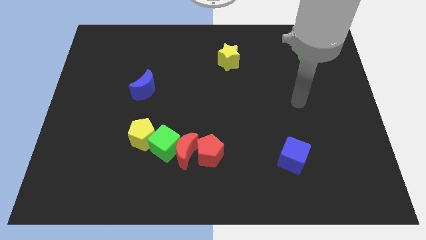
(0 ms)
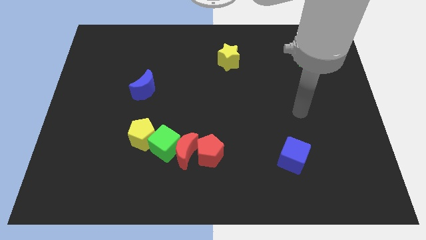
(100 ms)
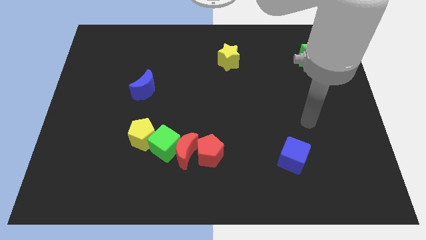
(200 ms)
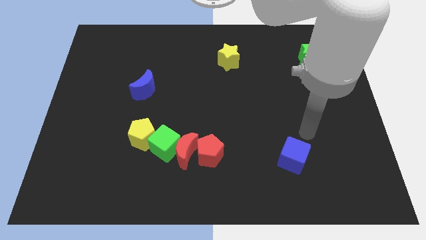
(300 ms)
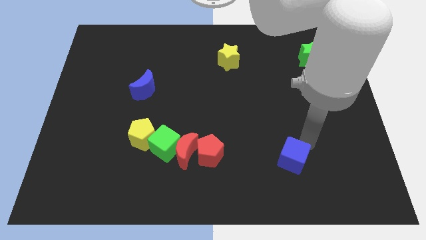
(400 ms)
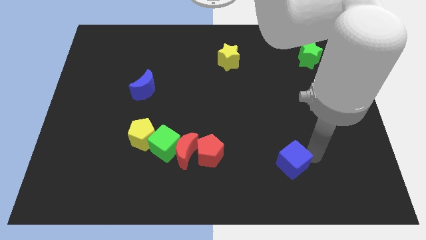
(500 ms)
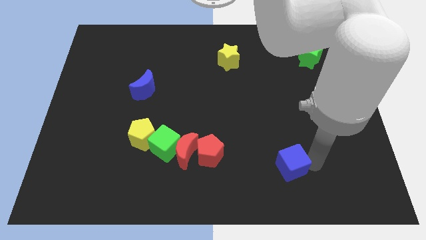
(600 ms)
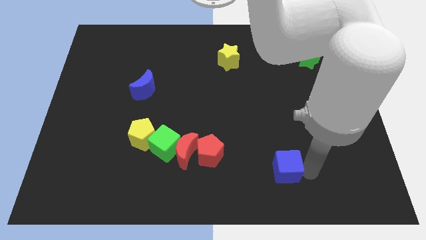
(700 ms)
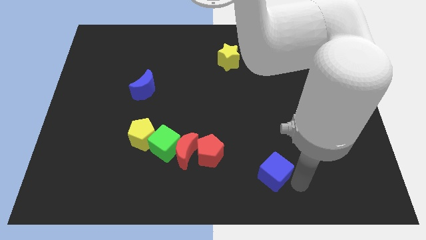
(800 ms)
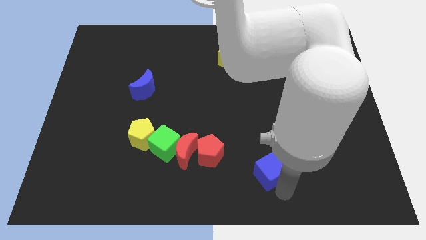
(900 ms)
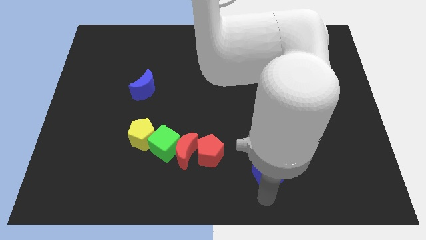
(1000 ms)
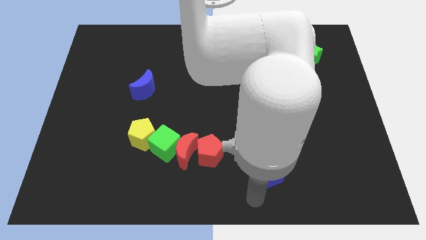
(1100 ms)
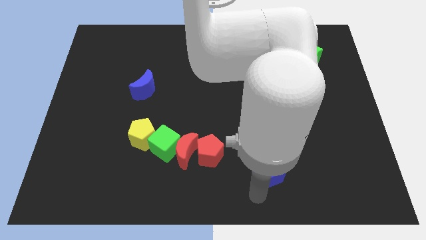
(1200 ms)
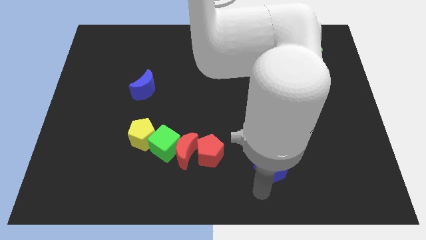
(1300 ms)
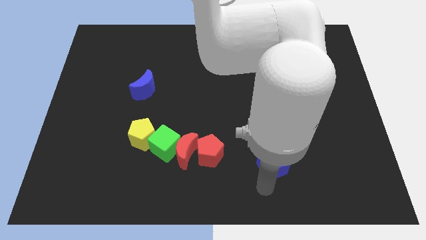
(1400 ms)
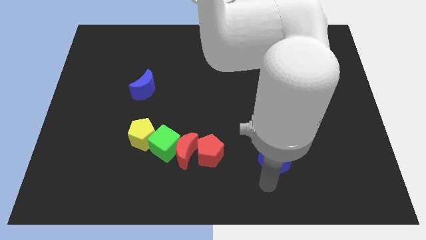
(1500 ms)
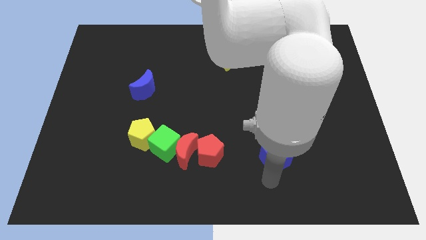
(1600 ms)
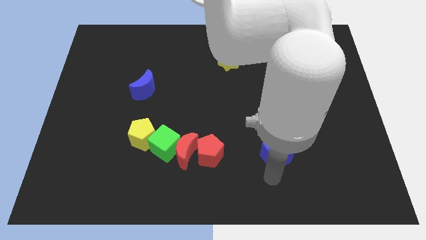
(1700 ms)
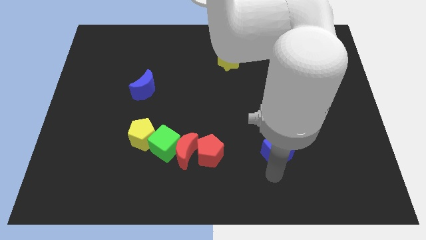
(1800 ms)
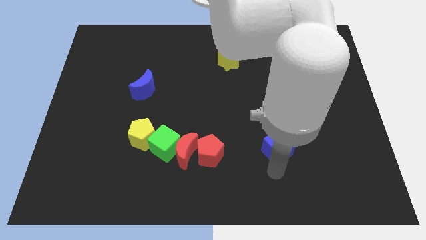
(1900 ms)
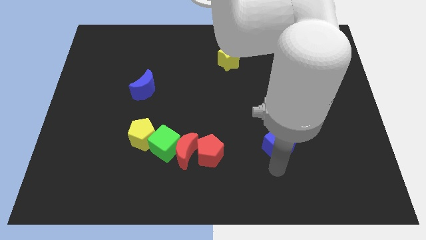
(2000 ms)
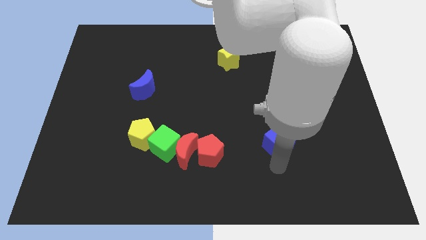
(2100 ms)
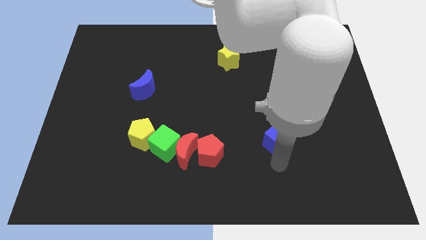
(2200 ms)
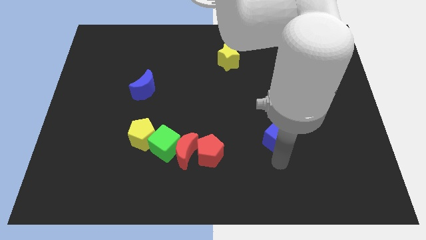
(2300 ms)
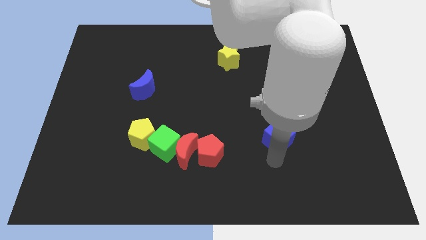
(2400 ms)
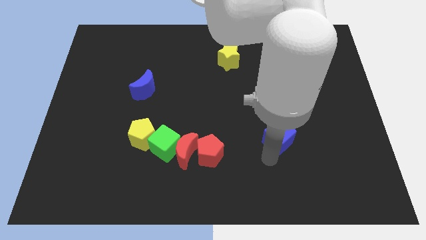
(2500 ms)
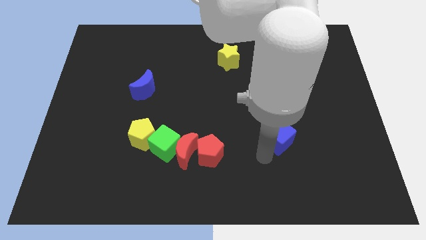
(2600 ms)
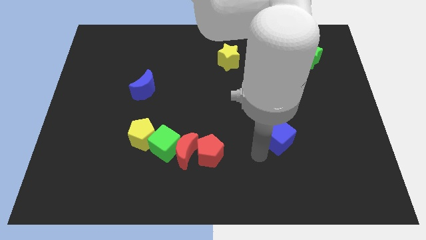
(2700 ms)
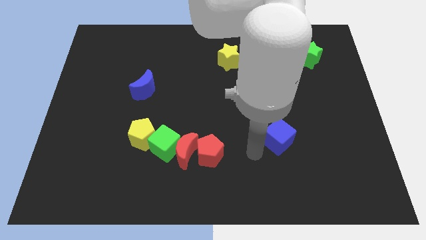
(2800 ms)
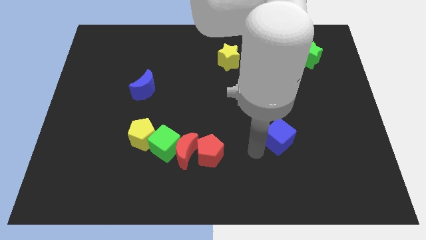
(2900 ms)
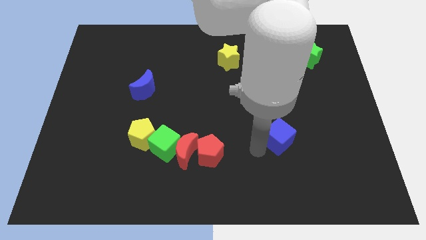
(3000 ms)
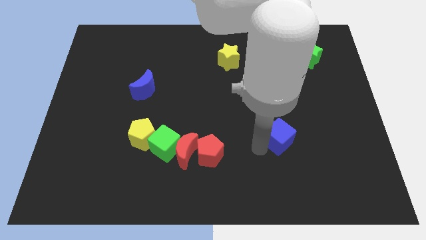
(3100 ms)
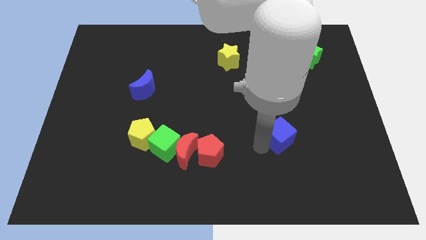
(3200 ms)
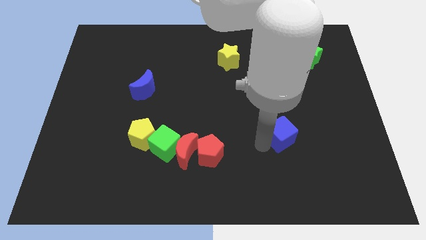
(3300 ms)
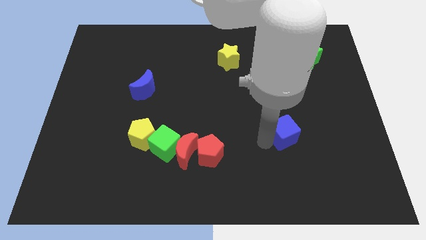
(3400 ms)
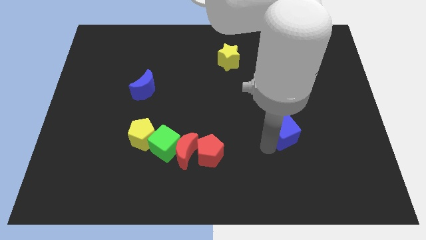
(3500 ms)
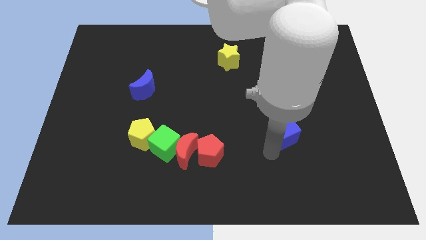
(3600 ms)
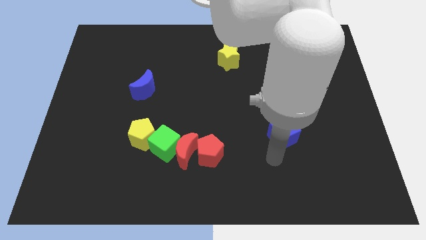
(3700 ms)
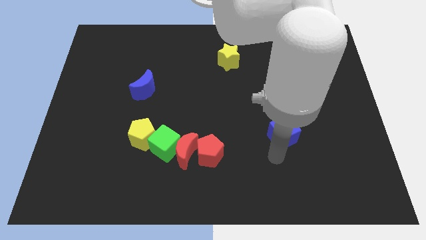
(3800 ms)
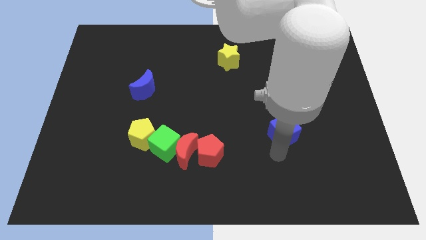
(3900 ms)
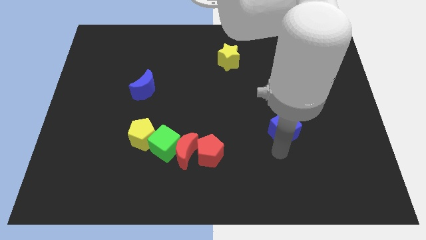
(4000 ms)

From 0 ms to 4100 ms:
slightly slide the blue cube upwards

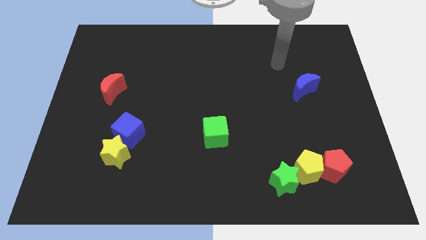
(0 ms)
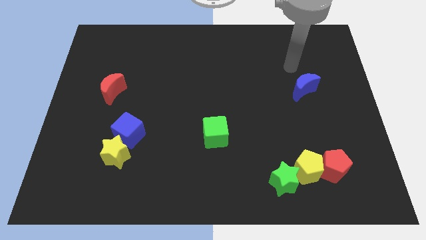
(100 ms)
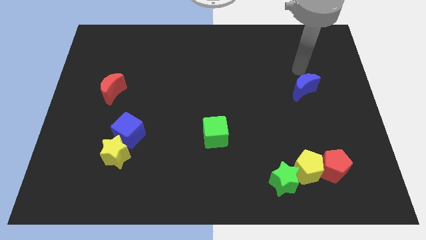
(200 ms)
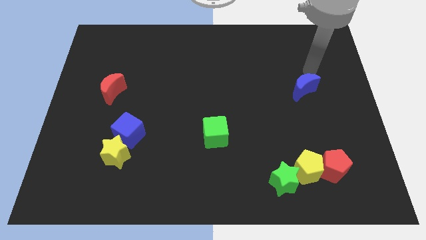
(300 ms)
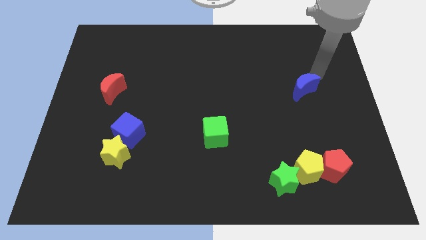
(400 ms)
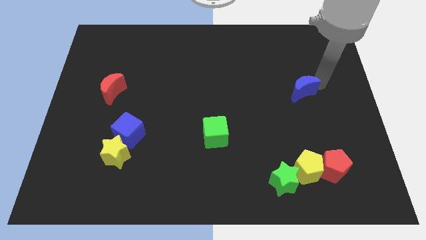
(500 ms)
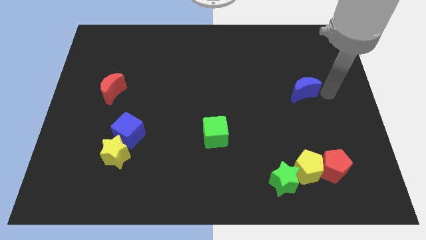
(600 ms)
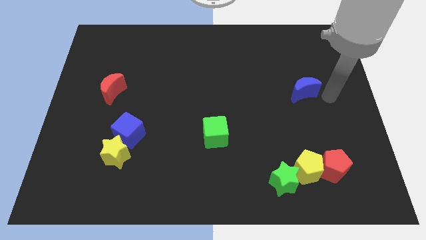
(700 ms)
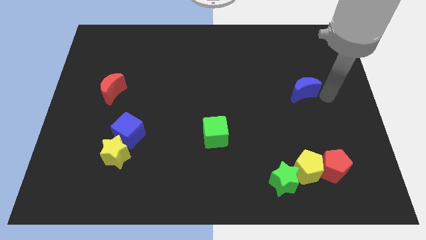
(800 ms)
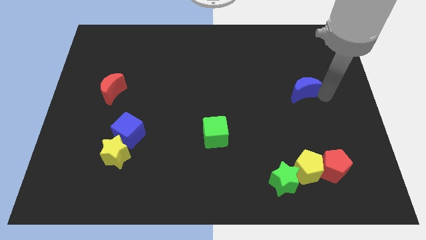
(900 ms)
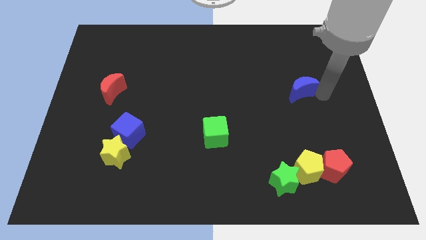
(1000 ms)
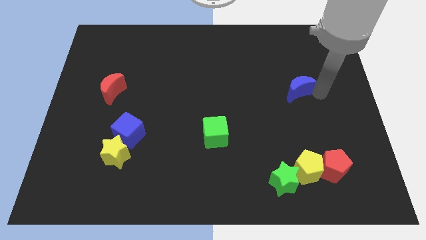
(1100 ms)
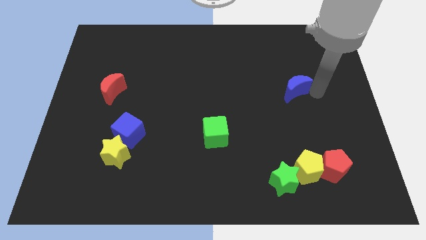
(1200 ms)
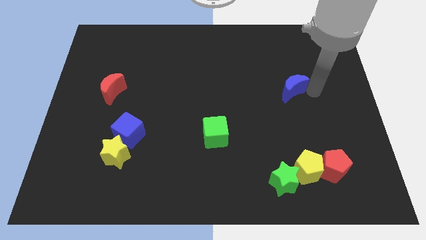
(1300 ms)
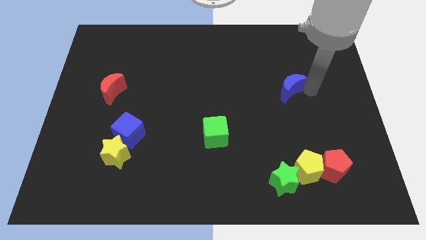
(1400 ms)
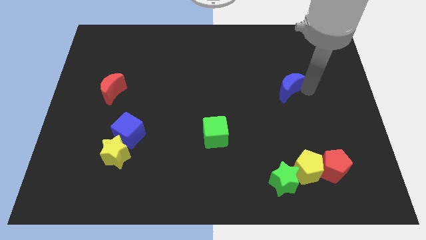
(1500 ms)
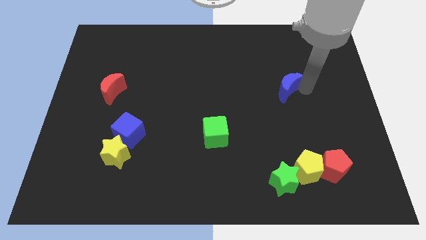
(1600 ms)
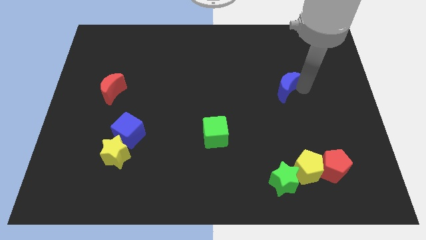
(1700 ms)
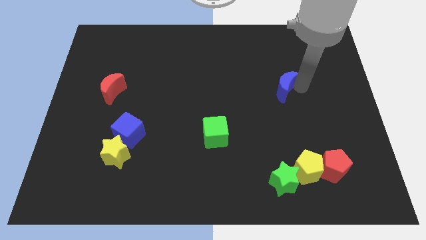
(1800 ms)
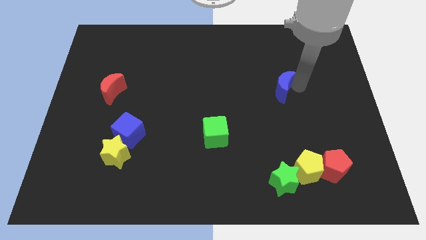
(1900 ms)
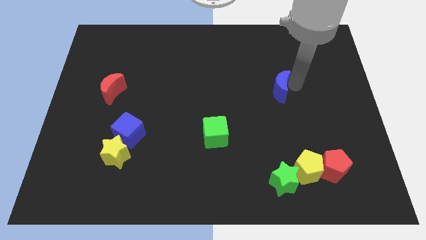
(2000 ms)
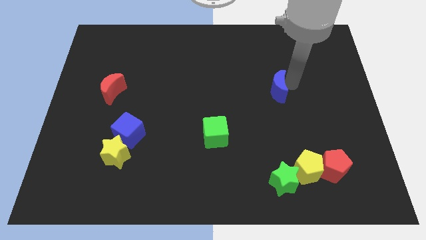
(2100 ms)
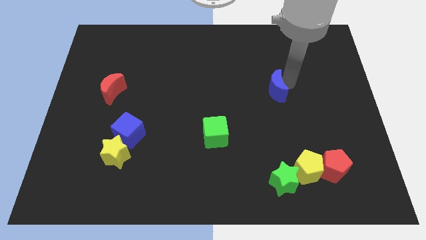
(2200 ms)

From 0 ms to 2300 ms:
slightly slide the blue moon to the left

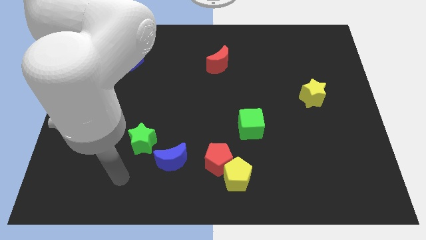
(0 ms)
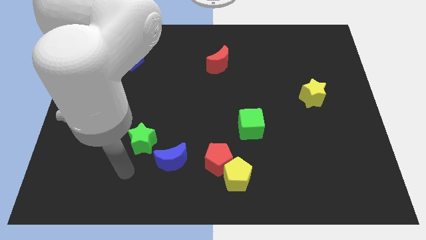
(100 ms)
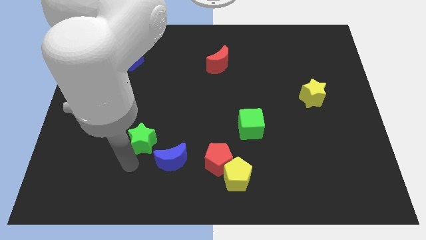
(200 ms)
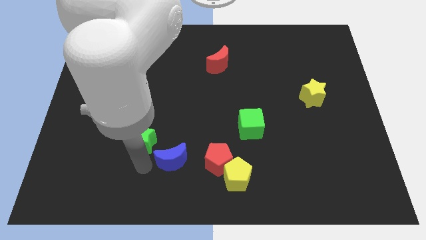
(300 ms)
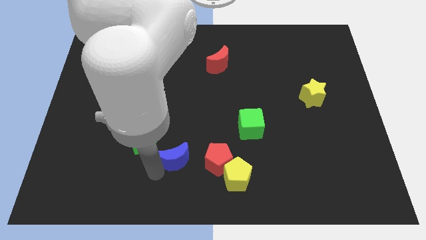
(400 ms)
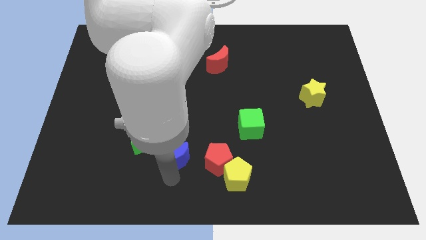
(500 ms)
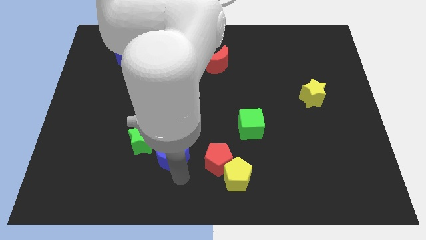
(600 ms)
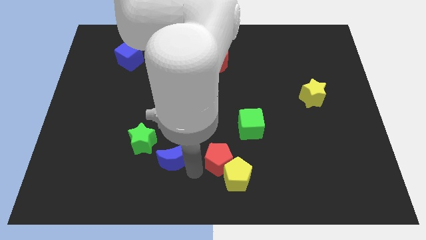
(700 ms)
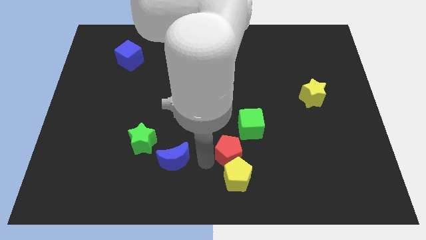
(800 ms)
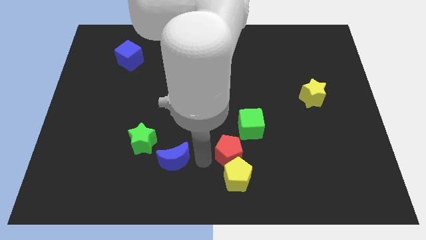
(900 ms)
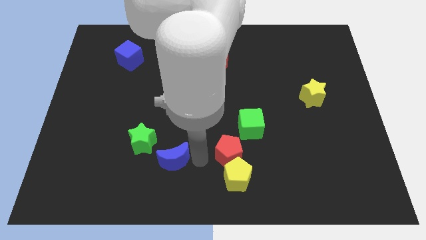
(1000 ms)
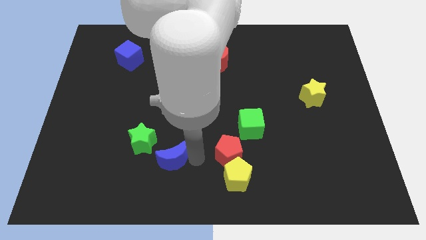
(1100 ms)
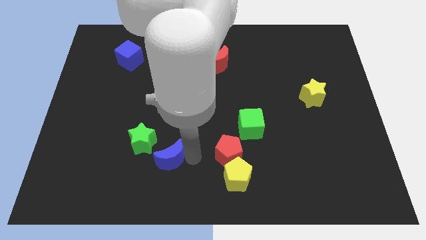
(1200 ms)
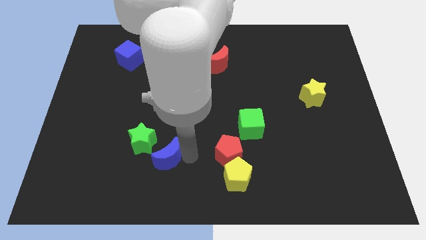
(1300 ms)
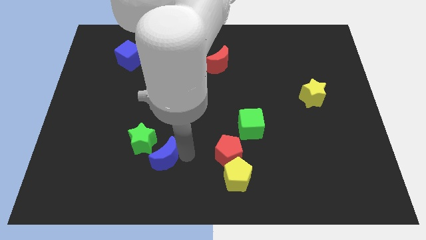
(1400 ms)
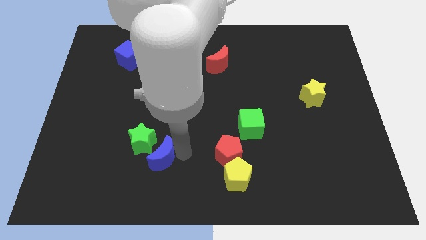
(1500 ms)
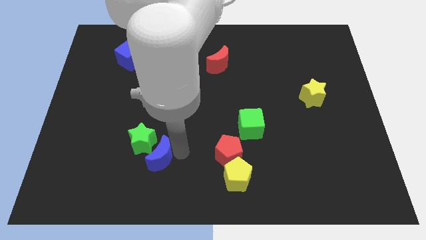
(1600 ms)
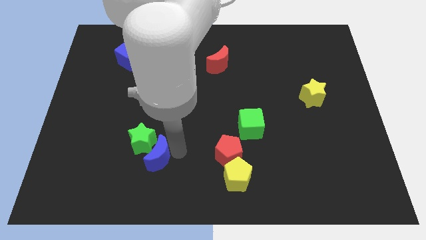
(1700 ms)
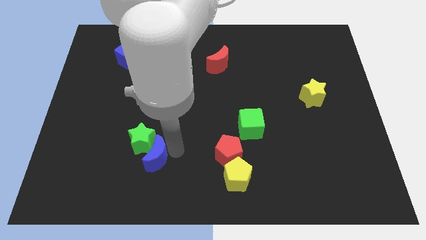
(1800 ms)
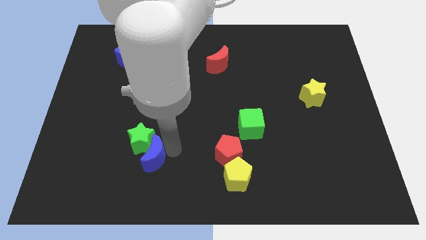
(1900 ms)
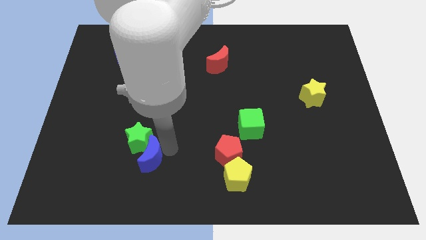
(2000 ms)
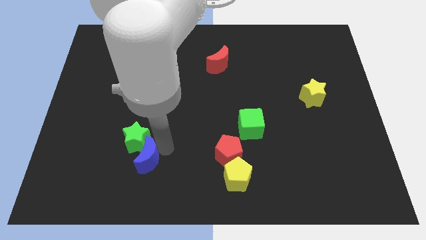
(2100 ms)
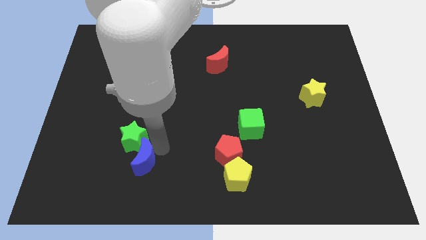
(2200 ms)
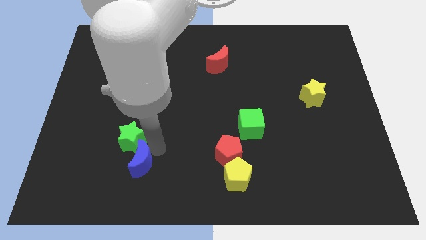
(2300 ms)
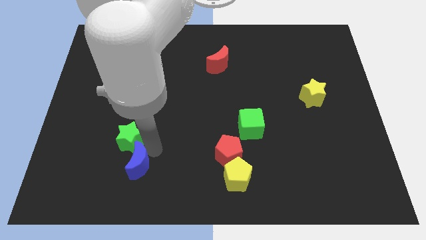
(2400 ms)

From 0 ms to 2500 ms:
slightly slide the blue moon left
